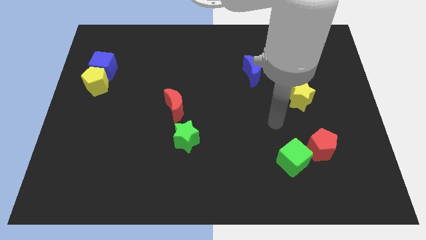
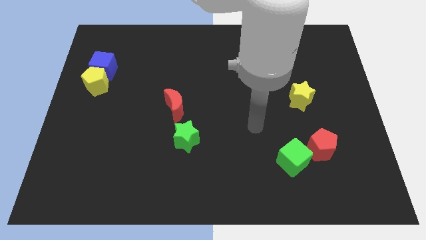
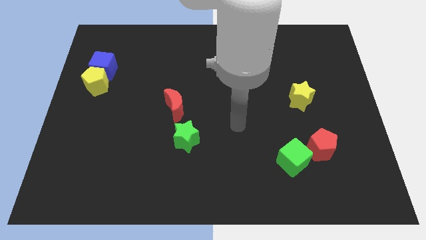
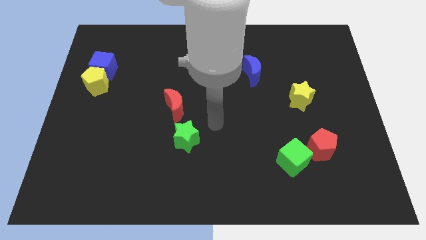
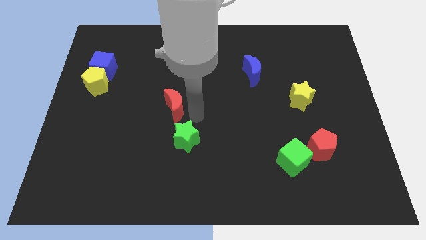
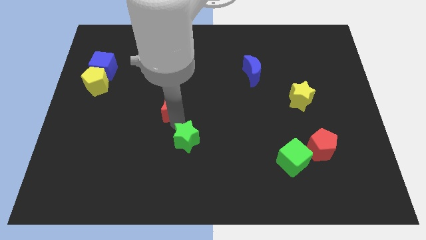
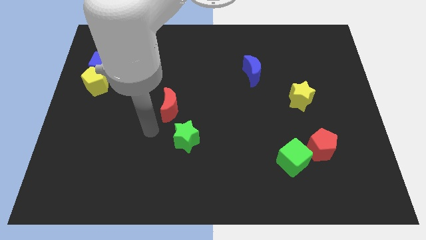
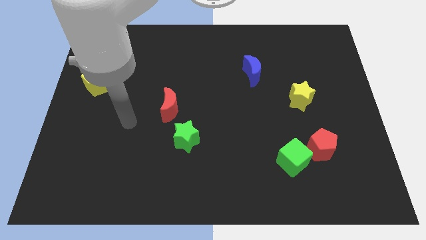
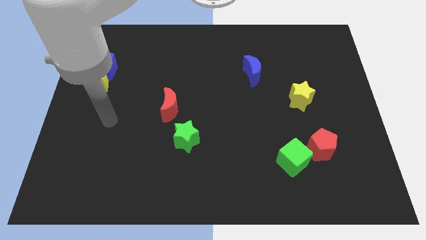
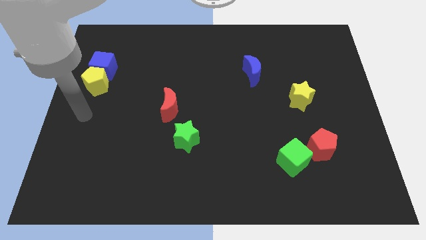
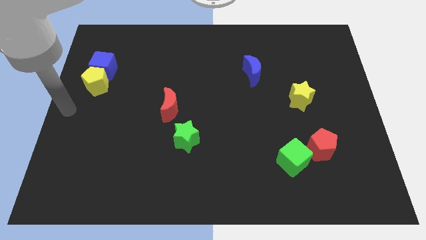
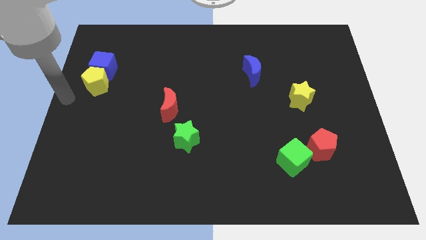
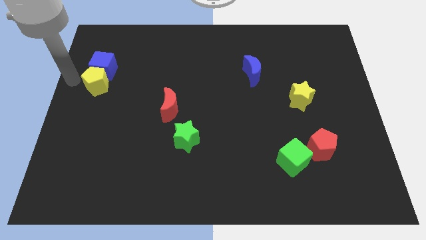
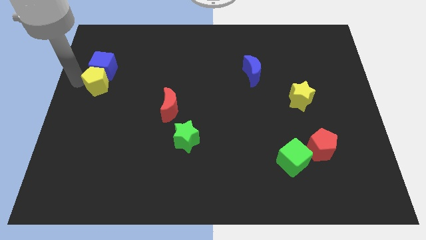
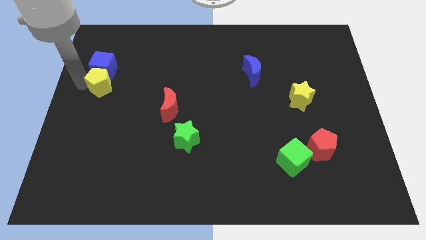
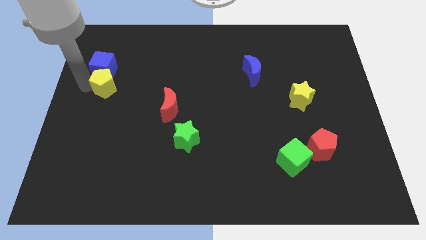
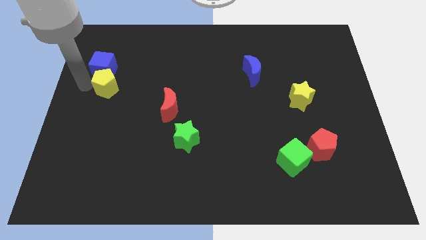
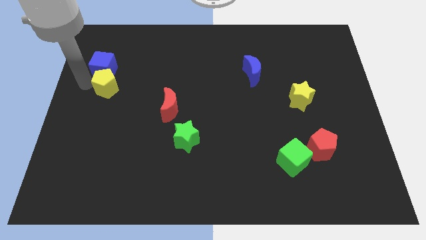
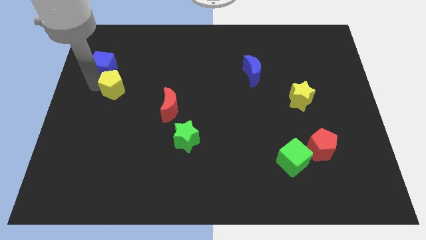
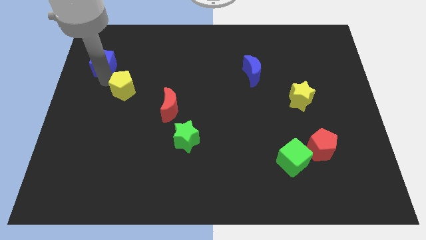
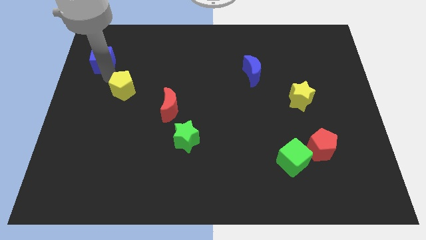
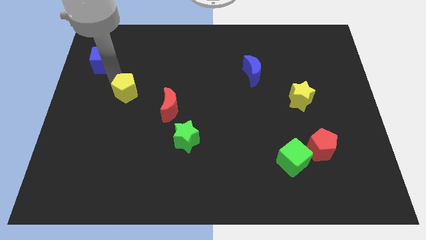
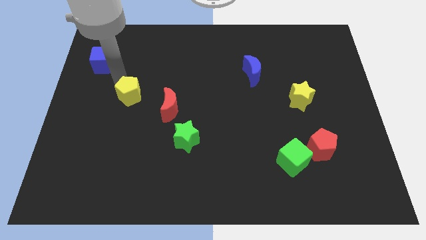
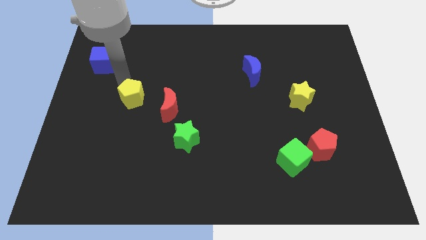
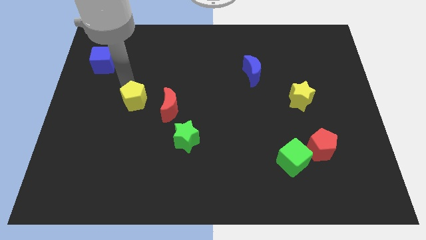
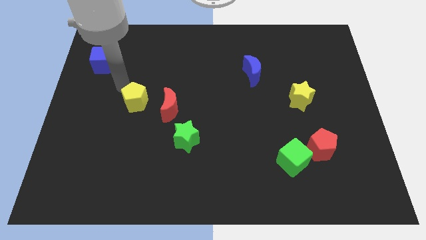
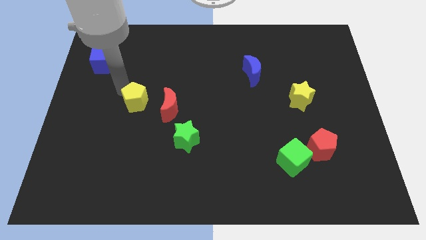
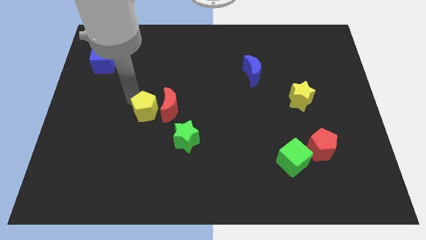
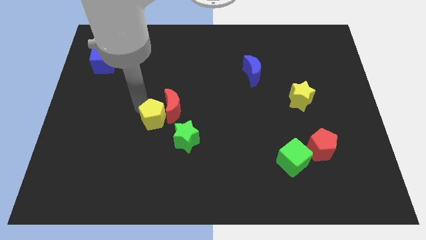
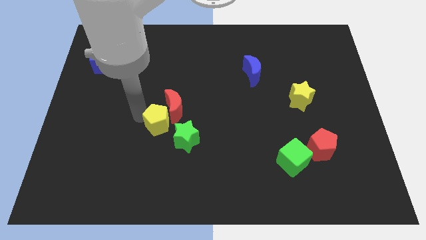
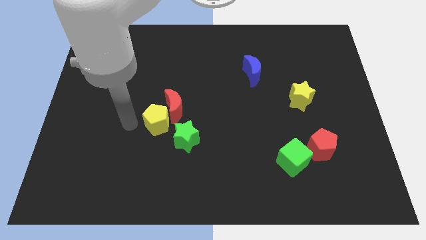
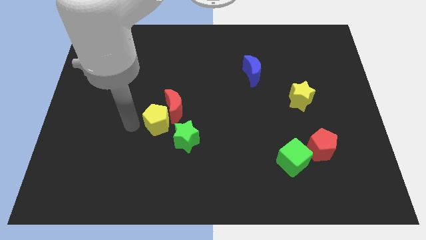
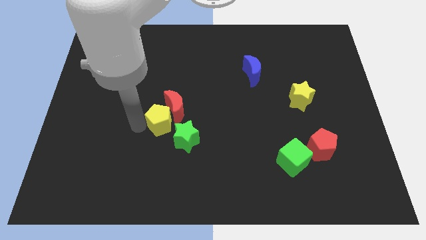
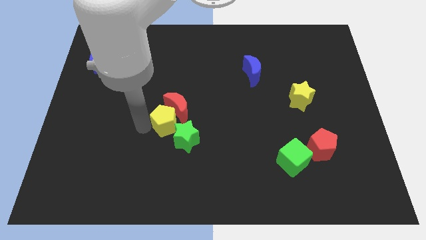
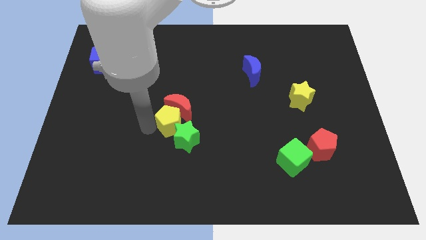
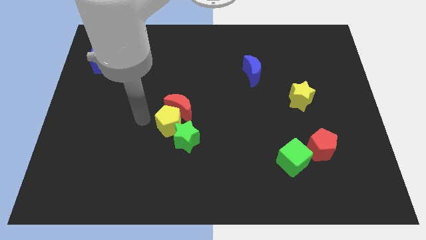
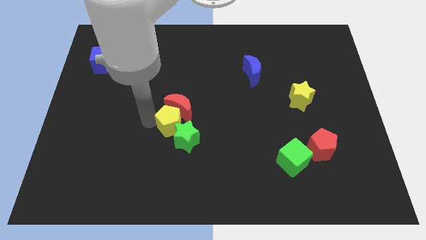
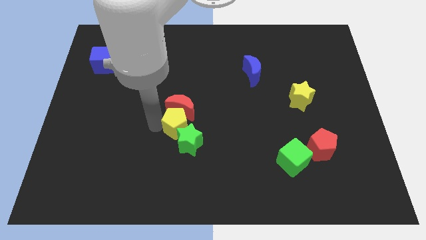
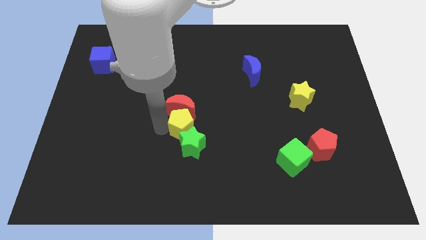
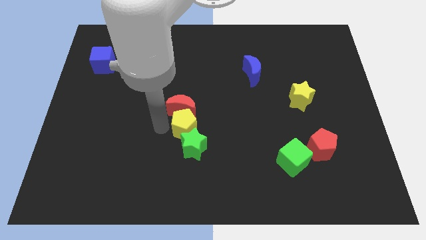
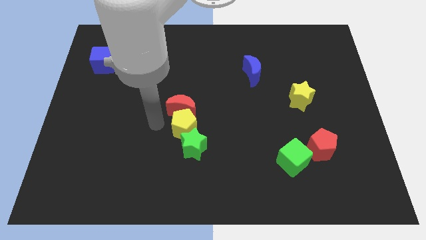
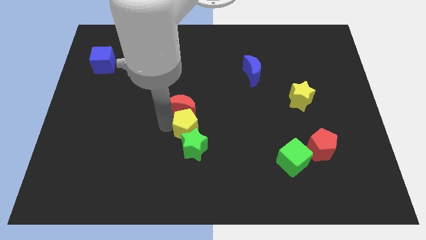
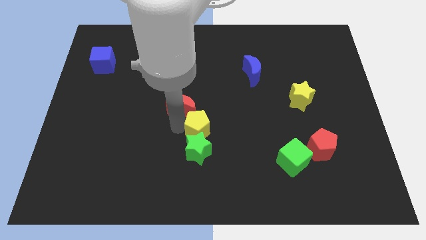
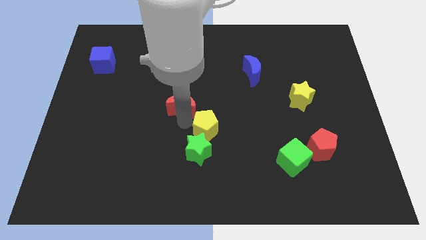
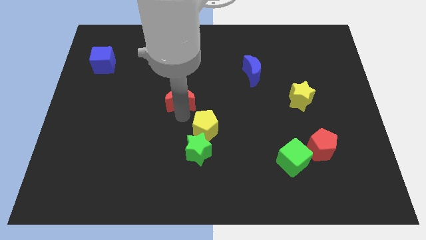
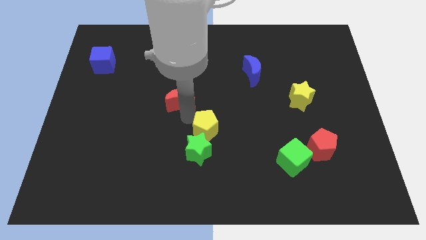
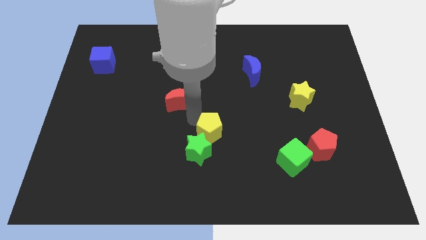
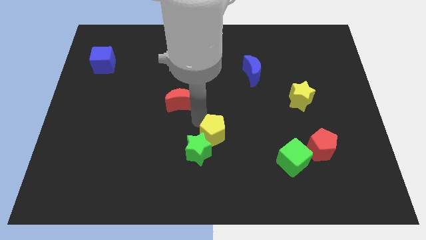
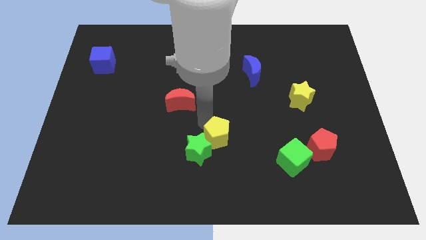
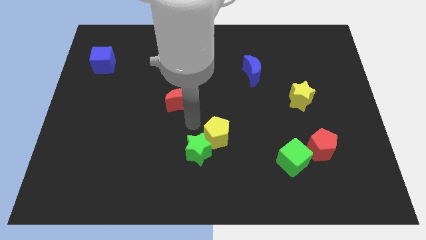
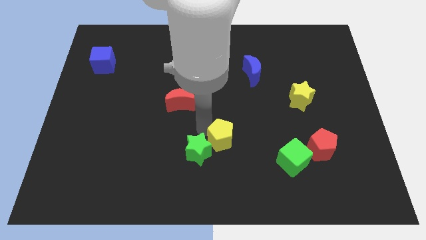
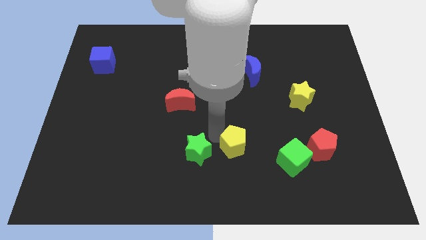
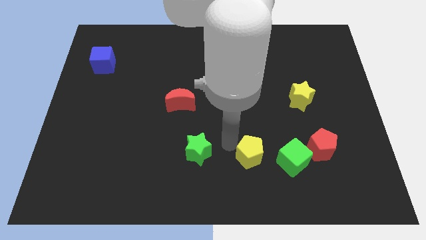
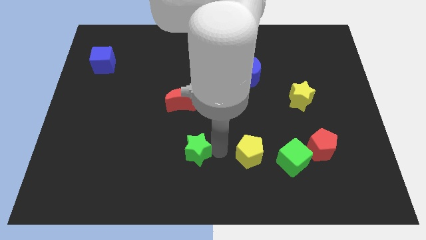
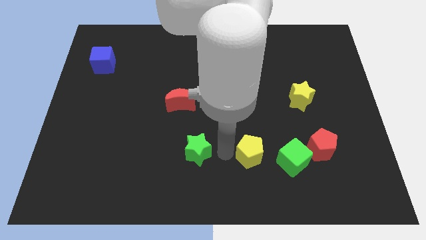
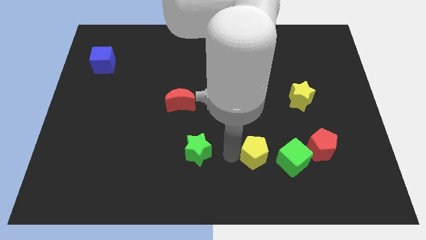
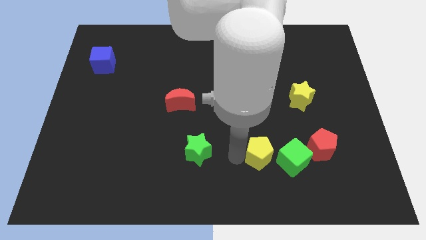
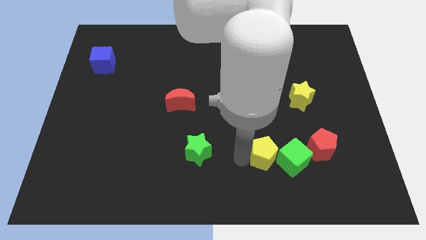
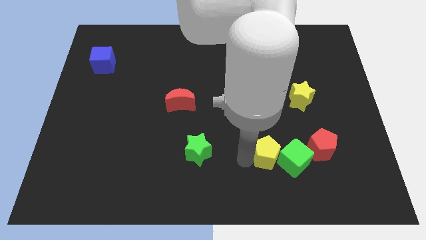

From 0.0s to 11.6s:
put the yellow pentagon towards the green cube

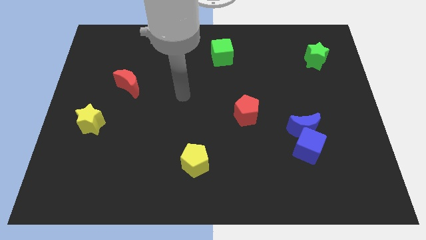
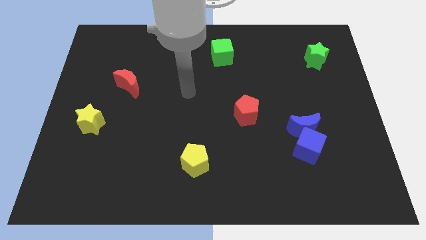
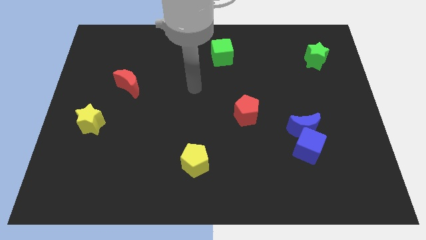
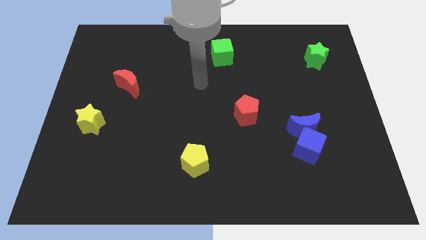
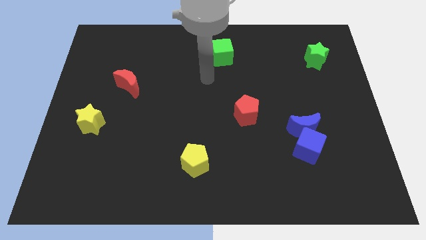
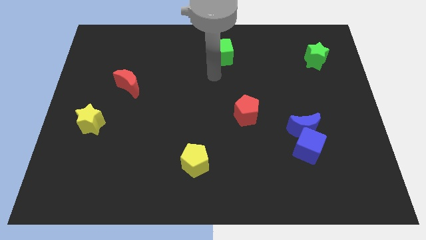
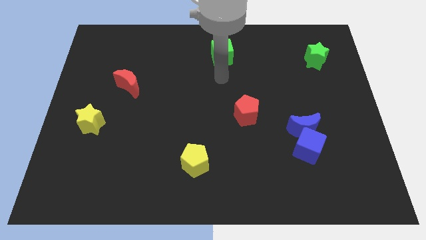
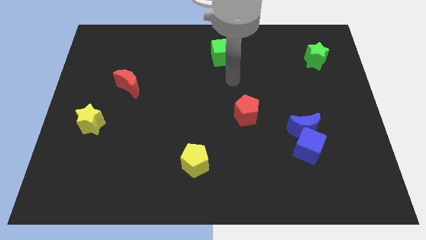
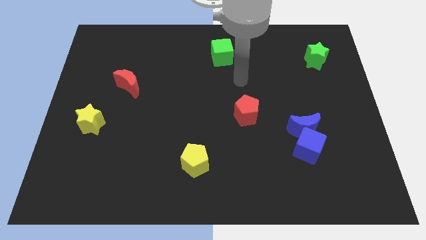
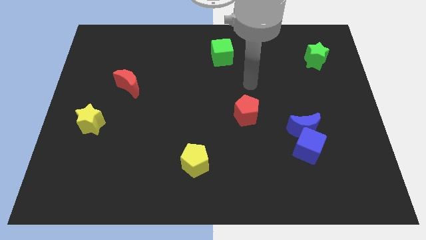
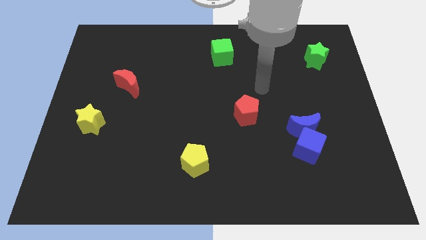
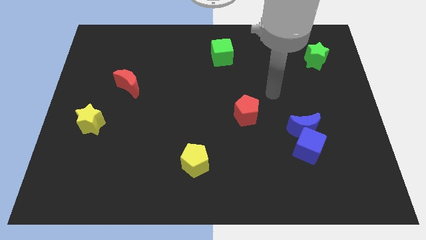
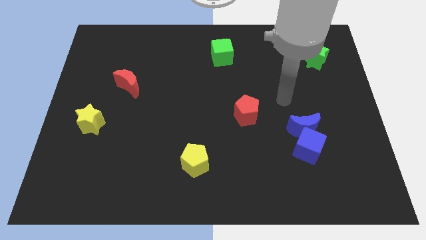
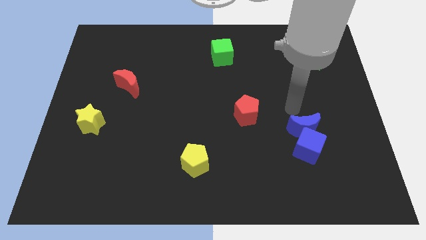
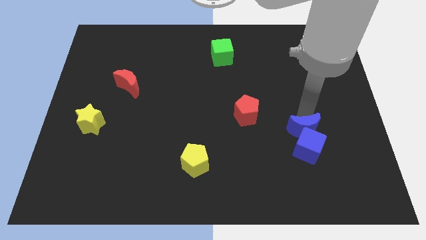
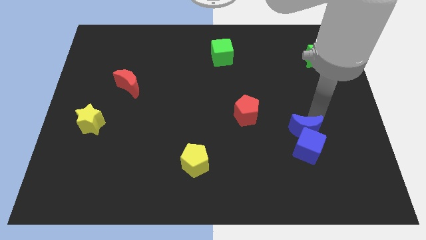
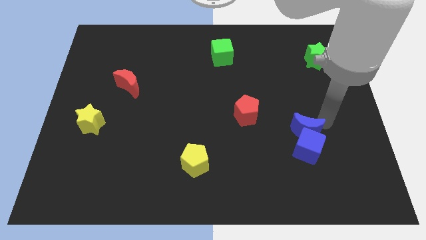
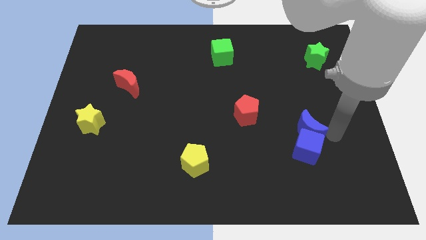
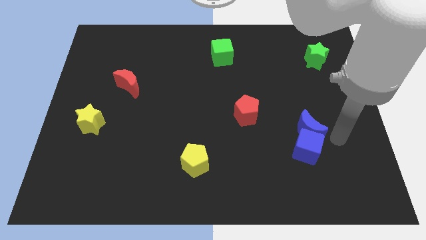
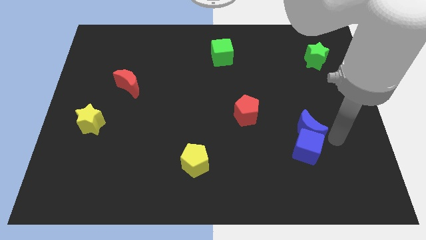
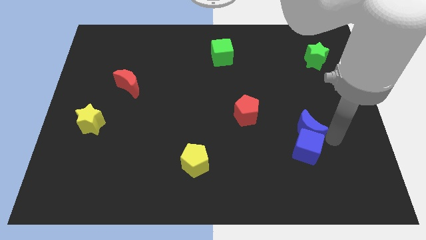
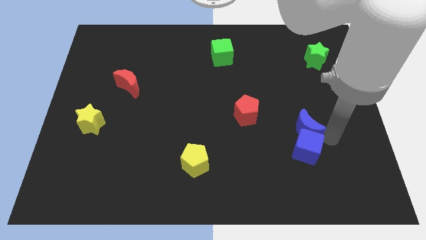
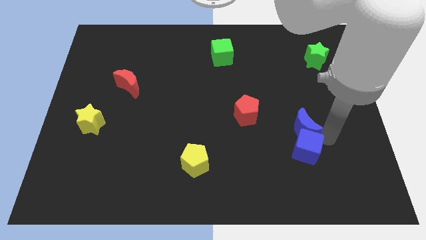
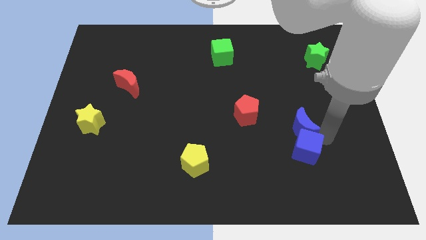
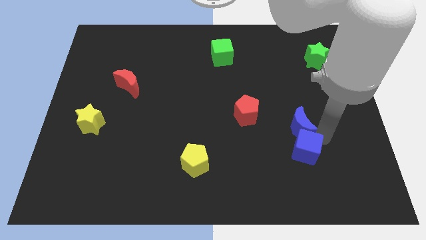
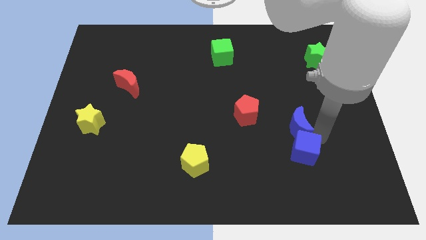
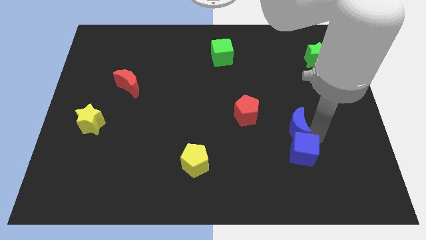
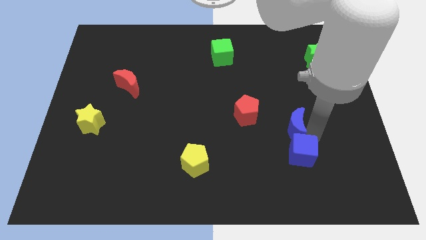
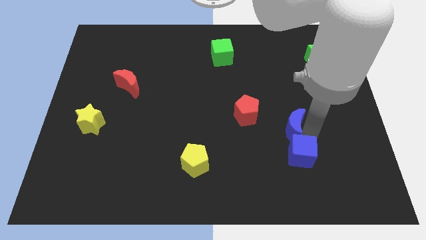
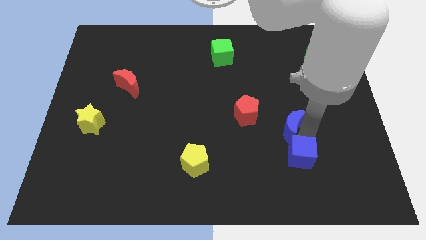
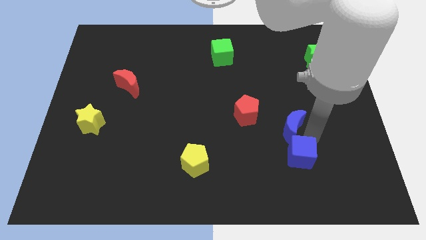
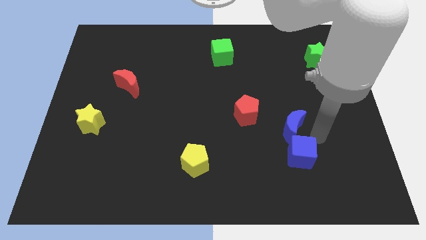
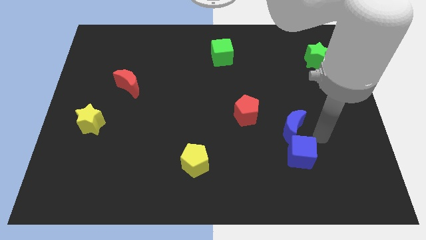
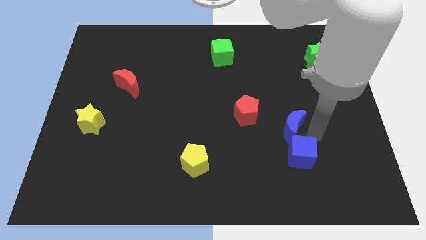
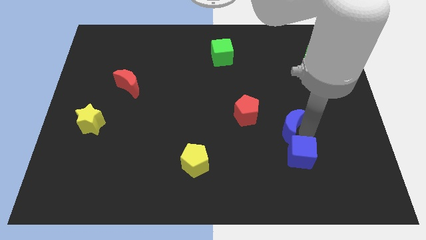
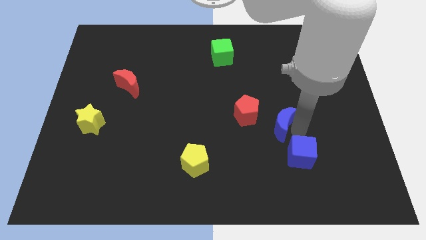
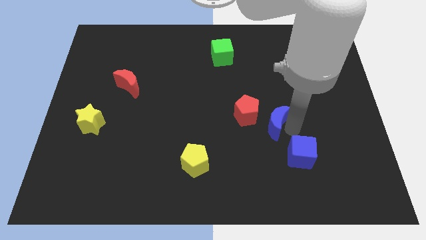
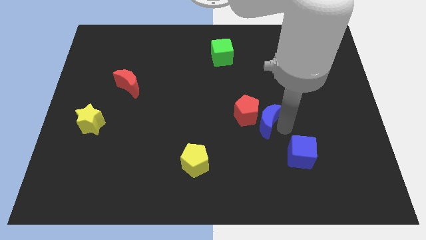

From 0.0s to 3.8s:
push the blue moon close to the red pentagon
